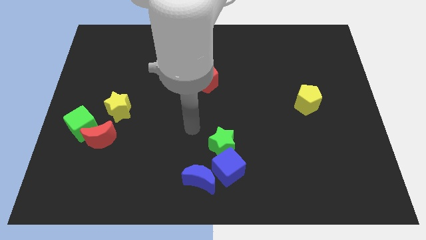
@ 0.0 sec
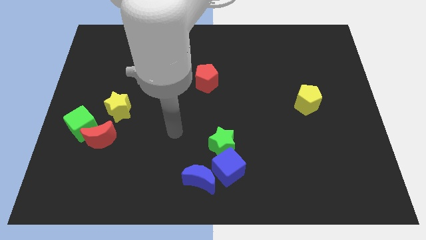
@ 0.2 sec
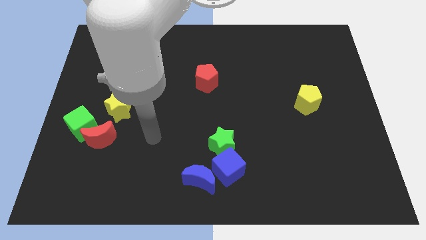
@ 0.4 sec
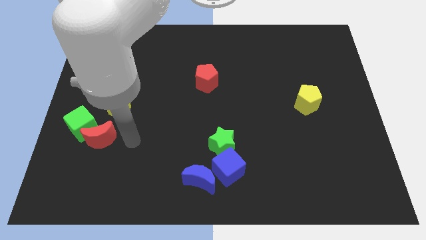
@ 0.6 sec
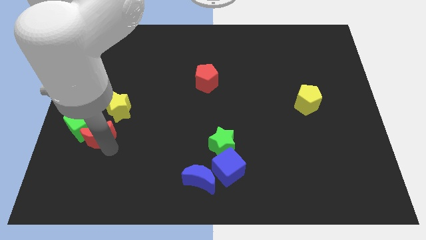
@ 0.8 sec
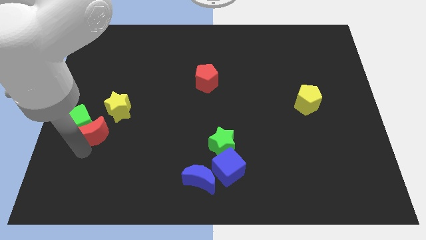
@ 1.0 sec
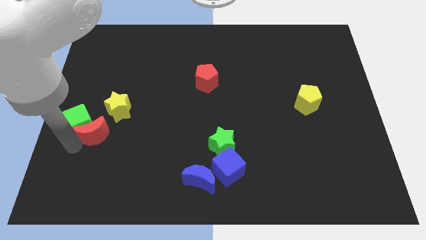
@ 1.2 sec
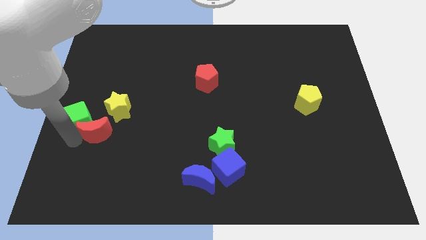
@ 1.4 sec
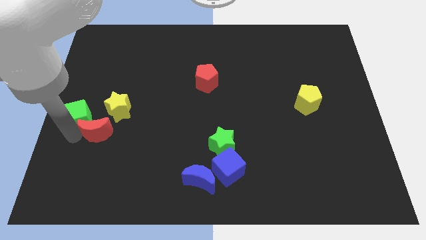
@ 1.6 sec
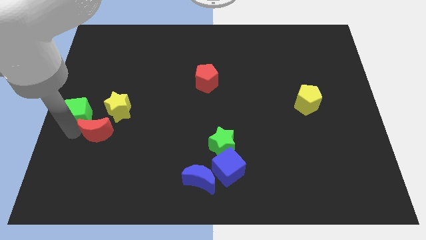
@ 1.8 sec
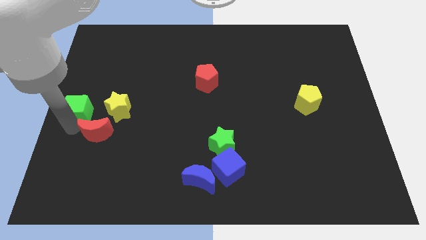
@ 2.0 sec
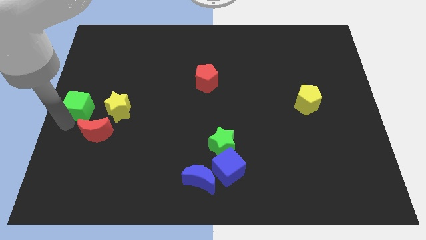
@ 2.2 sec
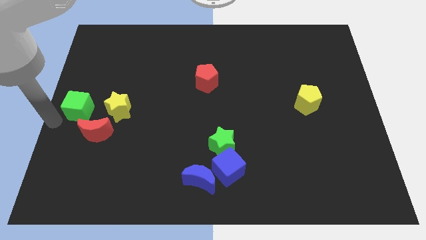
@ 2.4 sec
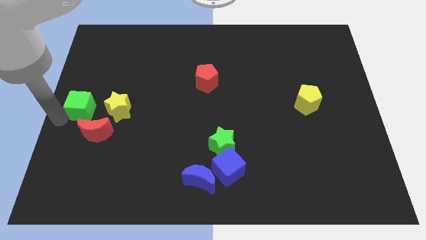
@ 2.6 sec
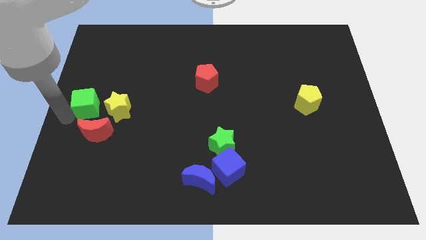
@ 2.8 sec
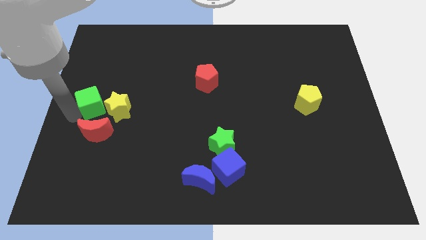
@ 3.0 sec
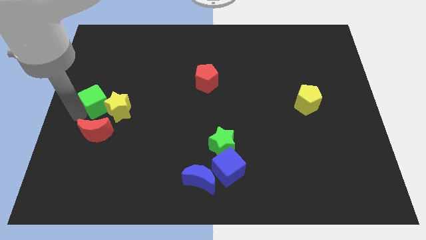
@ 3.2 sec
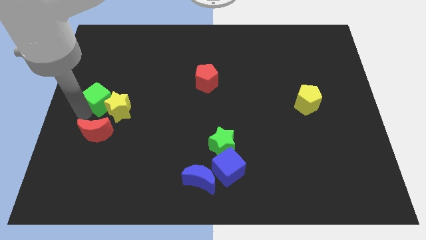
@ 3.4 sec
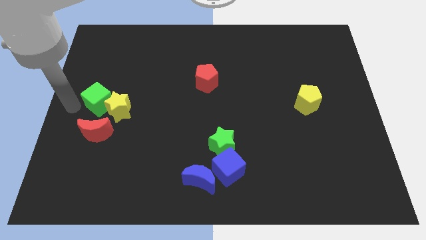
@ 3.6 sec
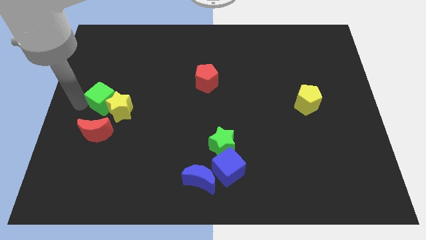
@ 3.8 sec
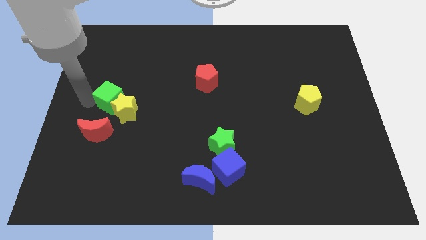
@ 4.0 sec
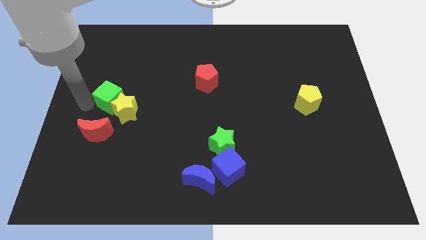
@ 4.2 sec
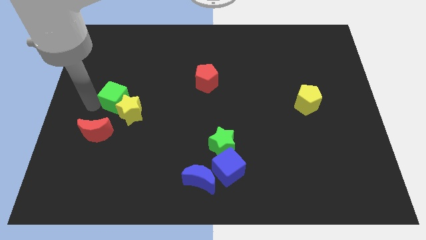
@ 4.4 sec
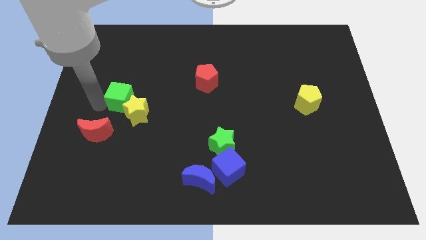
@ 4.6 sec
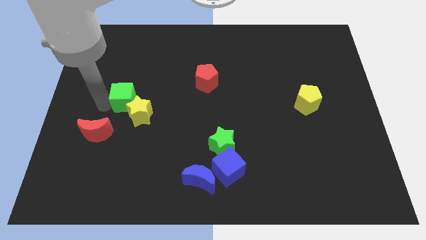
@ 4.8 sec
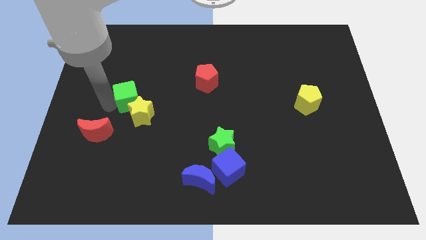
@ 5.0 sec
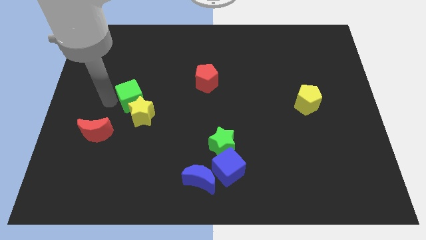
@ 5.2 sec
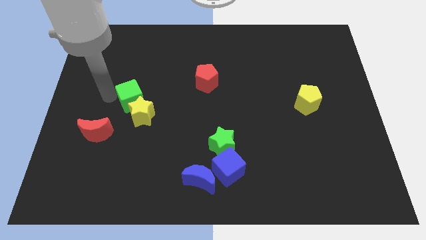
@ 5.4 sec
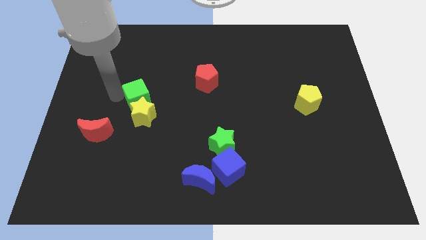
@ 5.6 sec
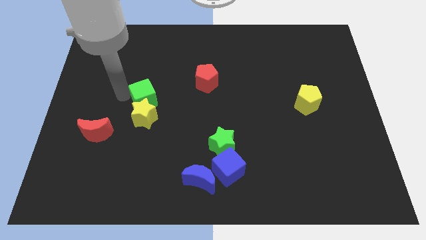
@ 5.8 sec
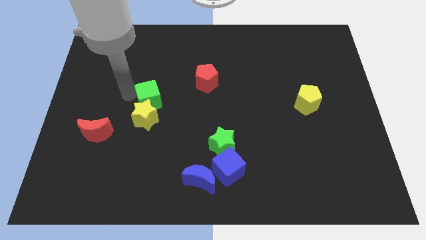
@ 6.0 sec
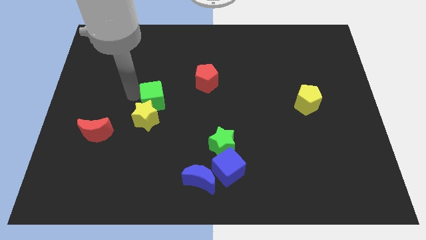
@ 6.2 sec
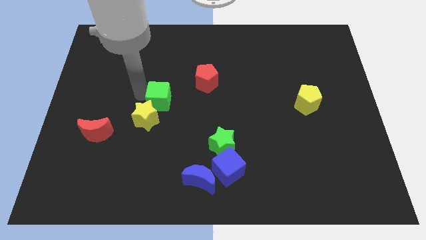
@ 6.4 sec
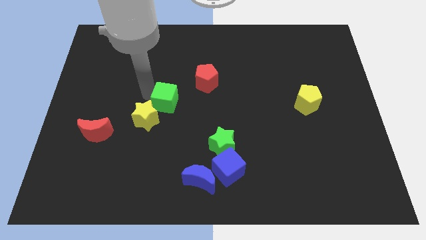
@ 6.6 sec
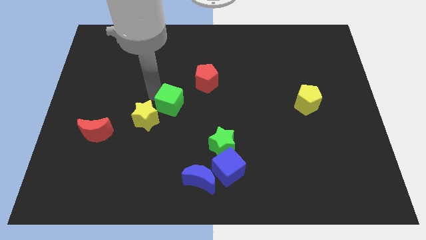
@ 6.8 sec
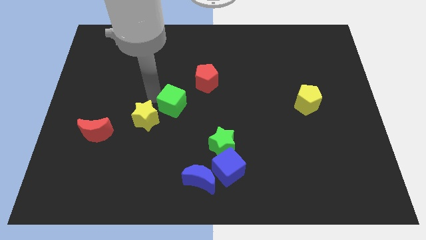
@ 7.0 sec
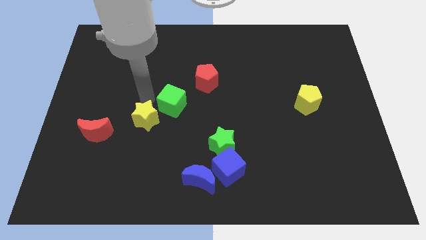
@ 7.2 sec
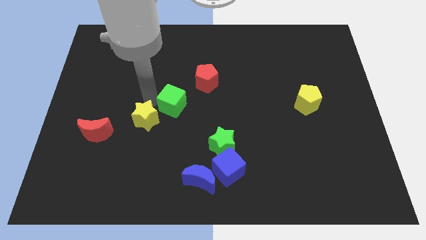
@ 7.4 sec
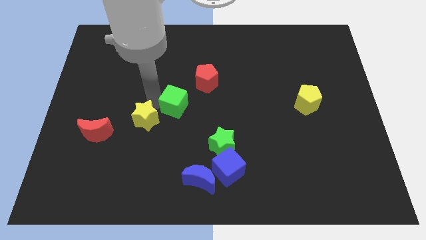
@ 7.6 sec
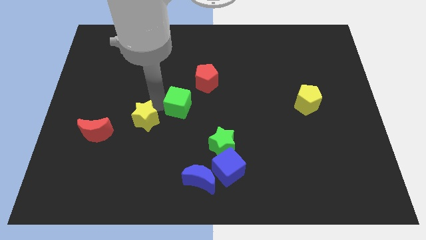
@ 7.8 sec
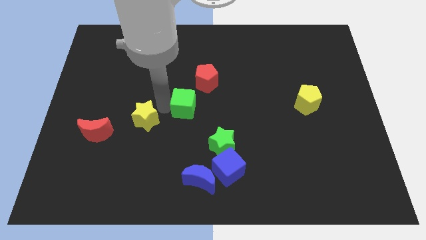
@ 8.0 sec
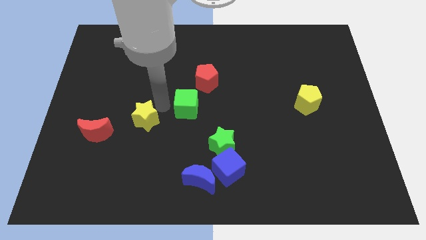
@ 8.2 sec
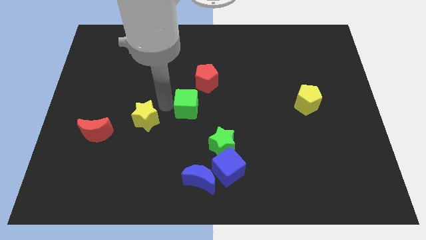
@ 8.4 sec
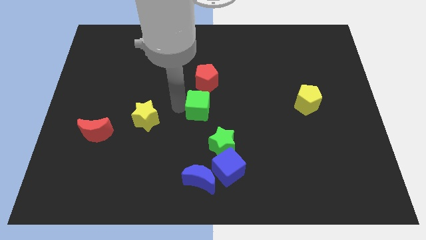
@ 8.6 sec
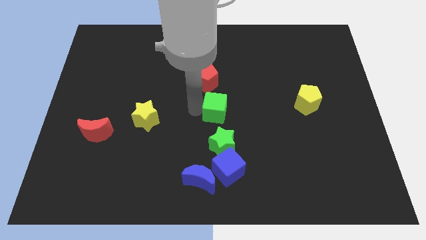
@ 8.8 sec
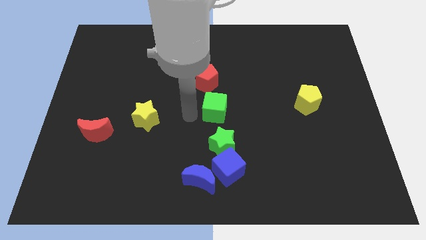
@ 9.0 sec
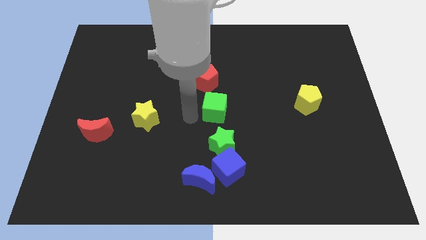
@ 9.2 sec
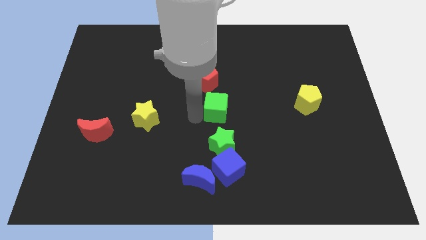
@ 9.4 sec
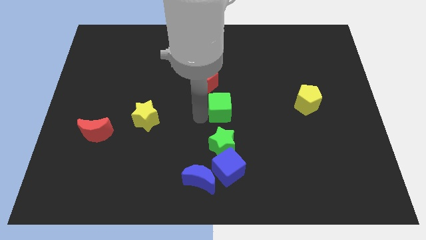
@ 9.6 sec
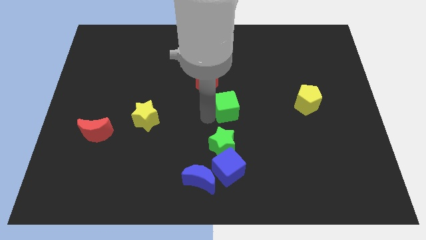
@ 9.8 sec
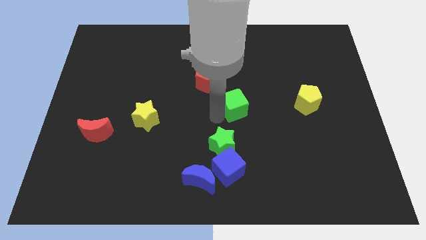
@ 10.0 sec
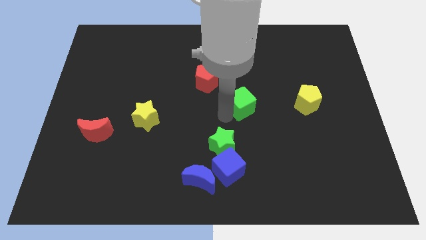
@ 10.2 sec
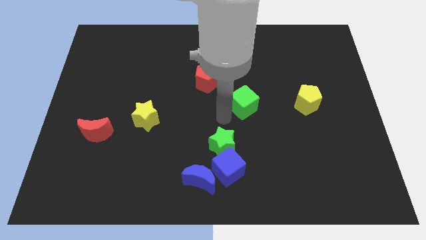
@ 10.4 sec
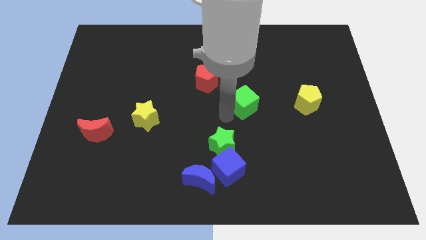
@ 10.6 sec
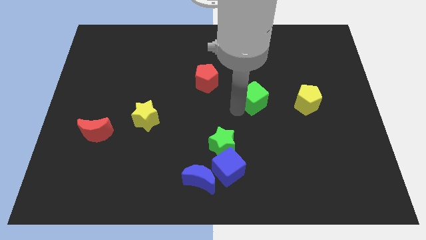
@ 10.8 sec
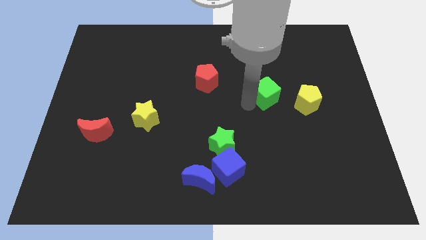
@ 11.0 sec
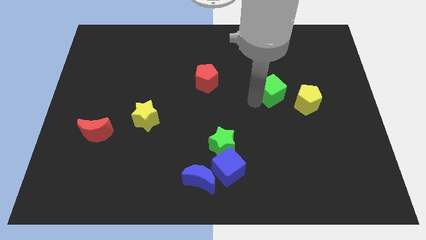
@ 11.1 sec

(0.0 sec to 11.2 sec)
move the green cube to the top left side of the yellow pentagon

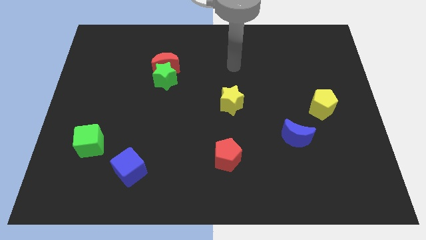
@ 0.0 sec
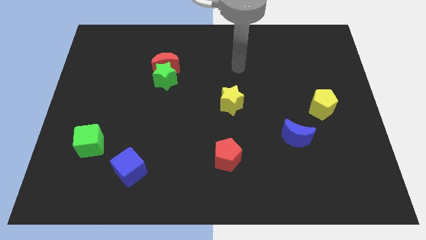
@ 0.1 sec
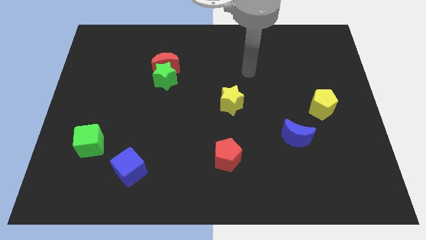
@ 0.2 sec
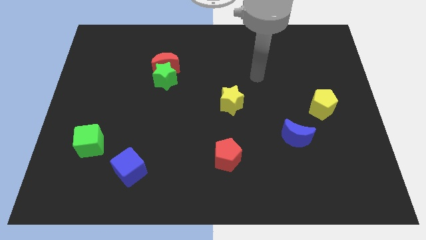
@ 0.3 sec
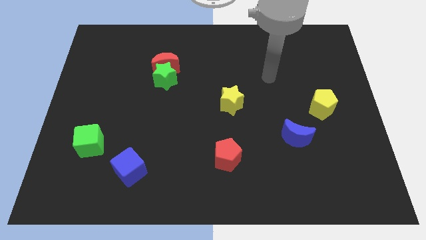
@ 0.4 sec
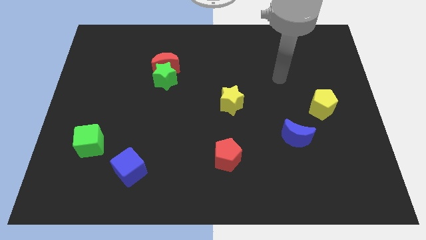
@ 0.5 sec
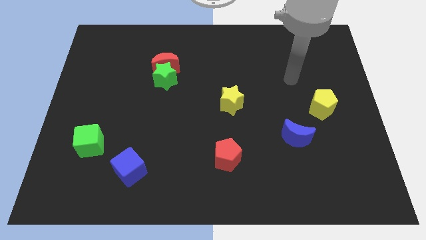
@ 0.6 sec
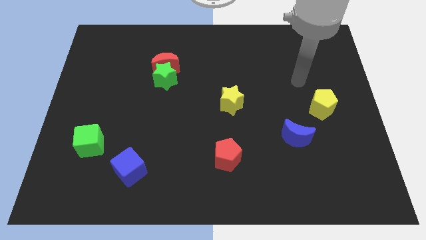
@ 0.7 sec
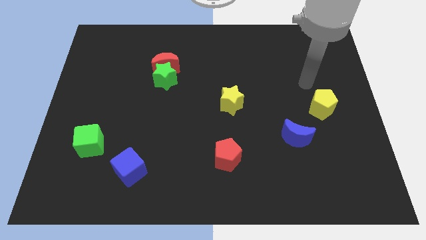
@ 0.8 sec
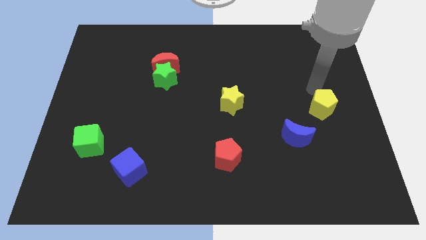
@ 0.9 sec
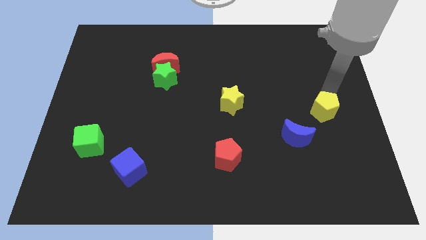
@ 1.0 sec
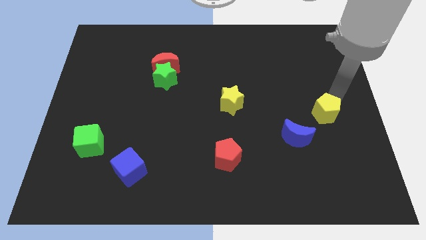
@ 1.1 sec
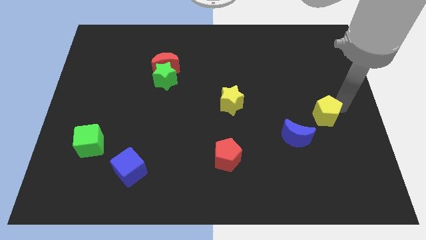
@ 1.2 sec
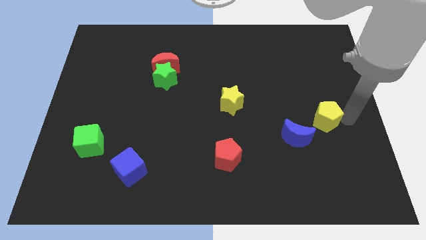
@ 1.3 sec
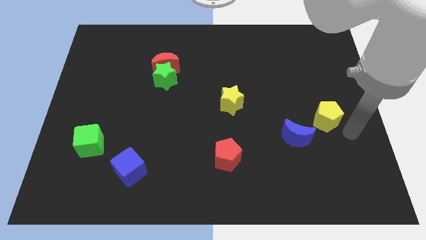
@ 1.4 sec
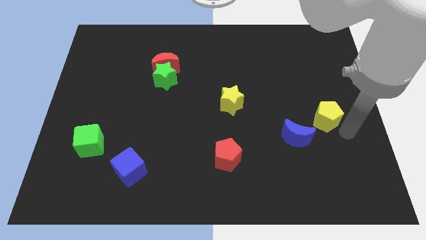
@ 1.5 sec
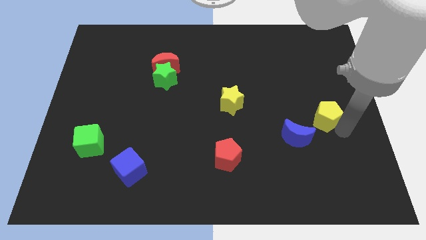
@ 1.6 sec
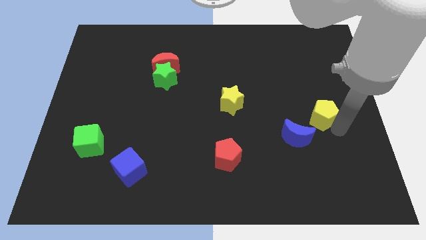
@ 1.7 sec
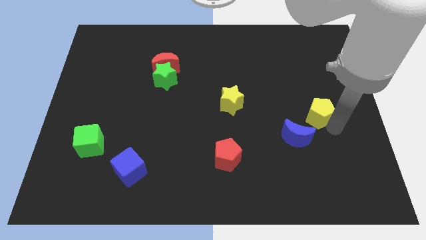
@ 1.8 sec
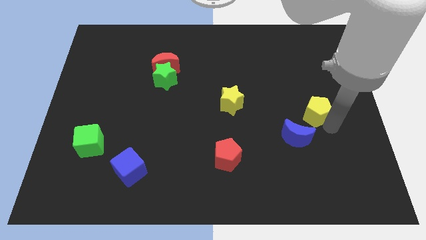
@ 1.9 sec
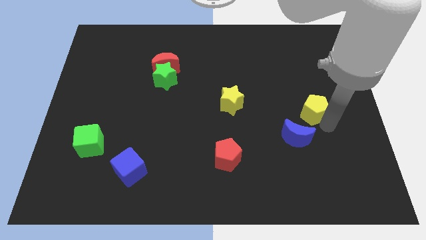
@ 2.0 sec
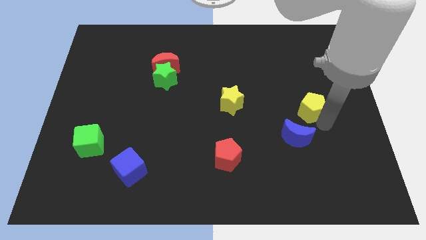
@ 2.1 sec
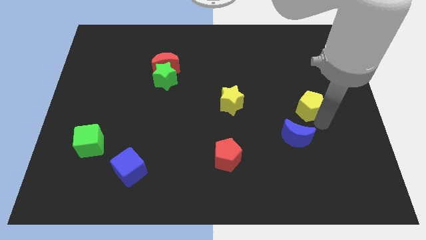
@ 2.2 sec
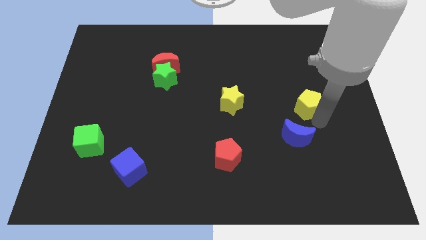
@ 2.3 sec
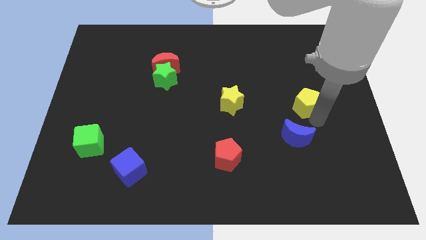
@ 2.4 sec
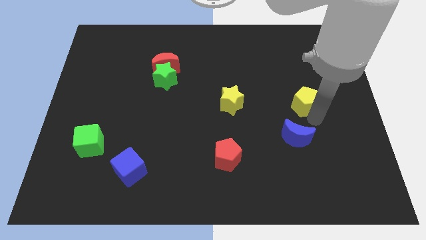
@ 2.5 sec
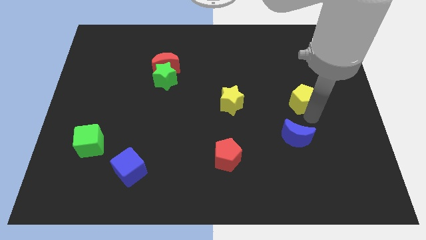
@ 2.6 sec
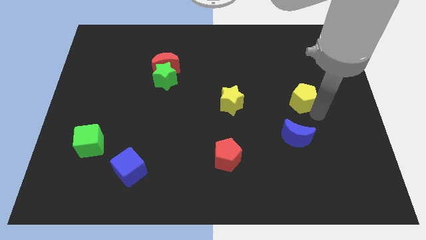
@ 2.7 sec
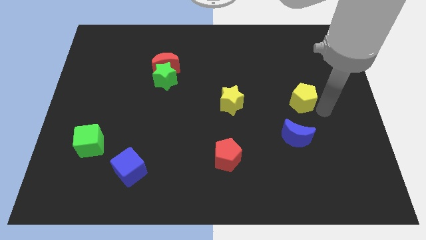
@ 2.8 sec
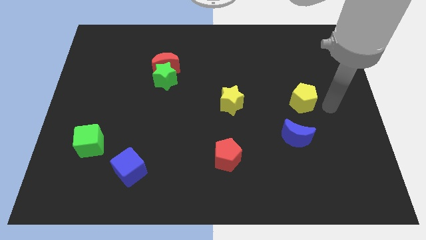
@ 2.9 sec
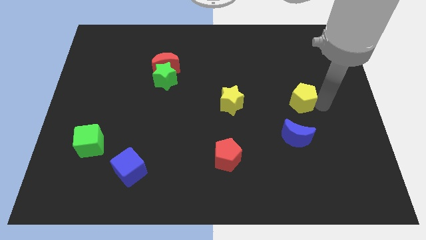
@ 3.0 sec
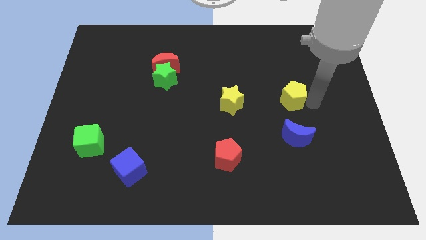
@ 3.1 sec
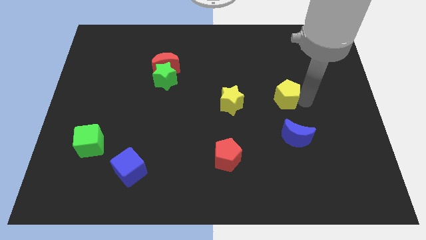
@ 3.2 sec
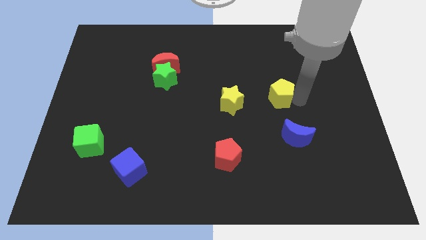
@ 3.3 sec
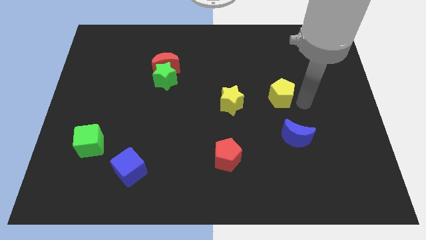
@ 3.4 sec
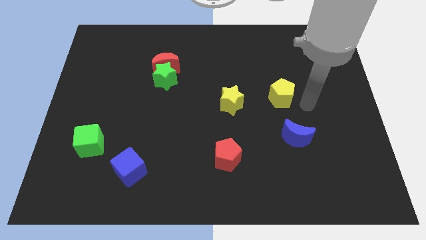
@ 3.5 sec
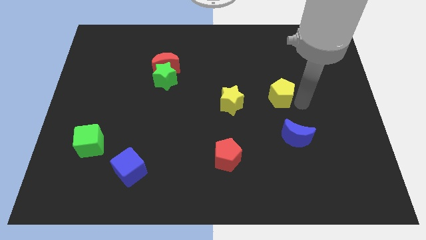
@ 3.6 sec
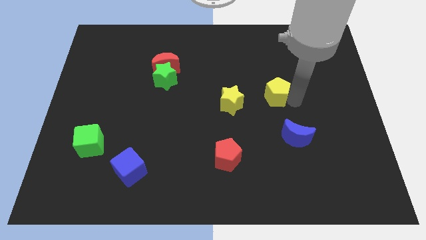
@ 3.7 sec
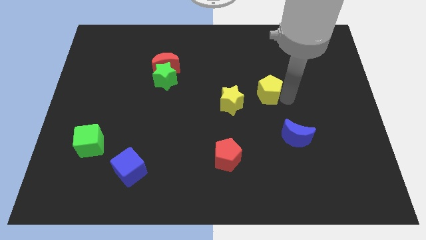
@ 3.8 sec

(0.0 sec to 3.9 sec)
put the yellow pentagon diagonally up and to the right of the yellow star
